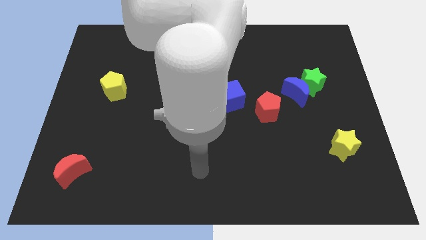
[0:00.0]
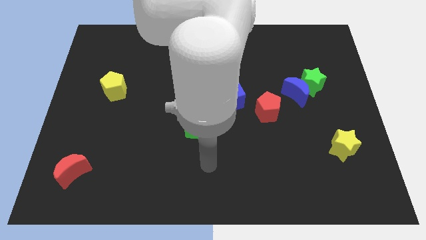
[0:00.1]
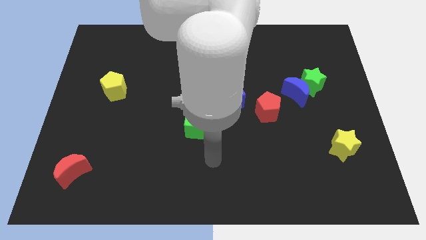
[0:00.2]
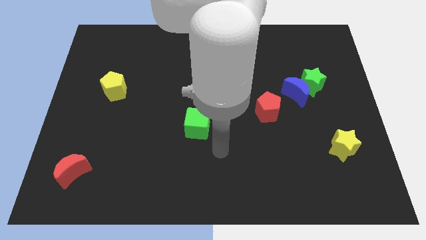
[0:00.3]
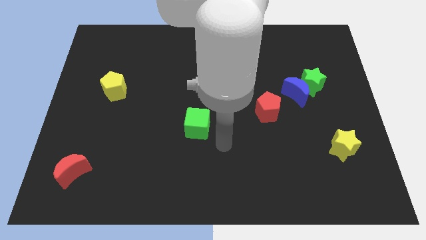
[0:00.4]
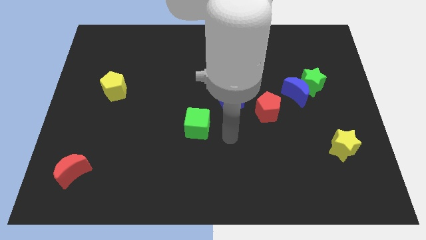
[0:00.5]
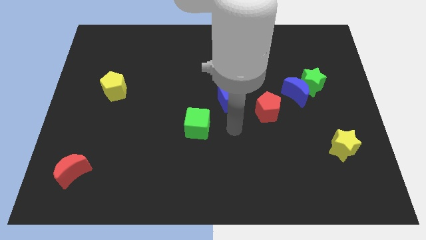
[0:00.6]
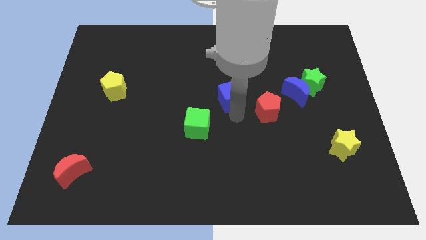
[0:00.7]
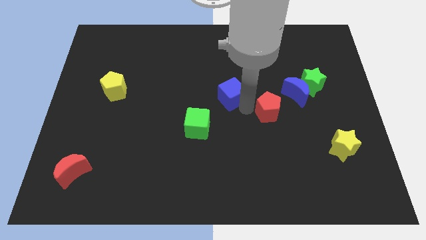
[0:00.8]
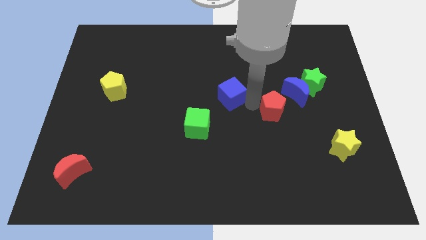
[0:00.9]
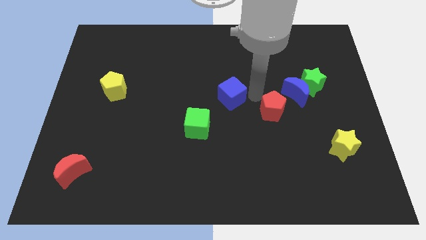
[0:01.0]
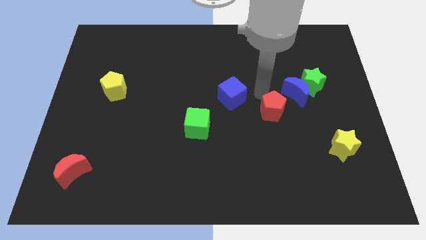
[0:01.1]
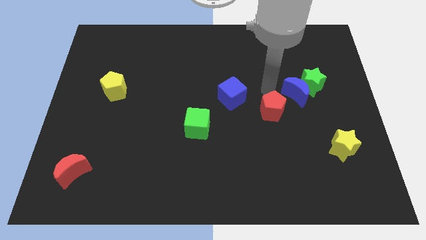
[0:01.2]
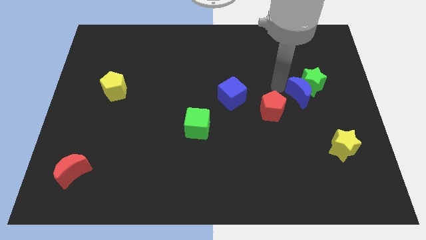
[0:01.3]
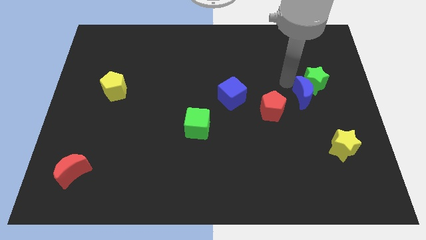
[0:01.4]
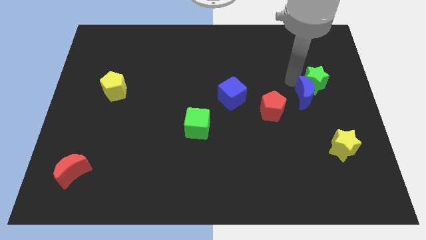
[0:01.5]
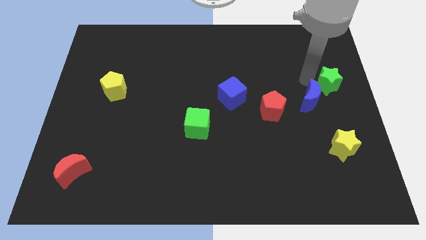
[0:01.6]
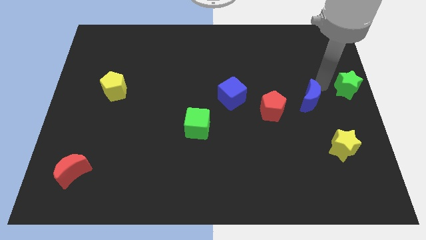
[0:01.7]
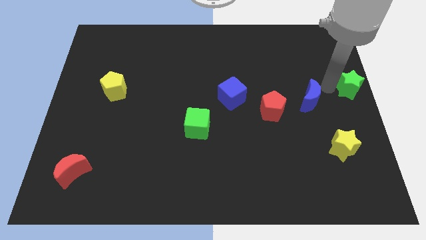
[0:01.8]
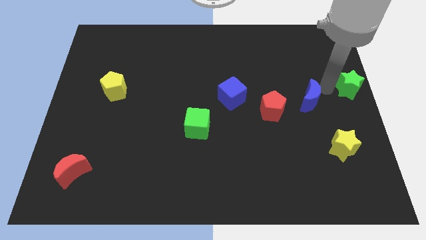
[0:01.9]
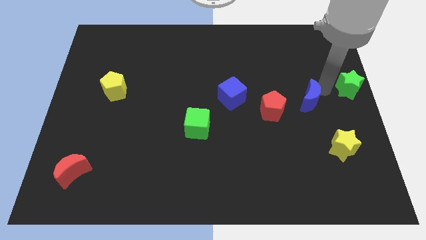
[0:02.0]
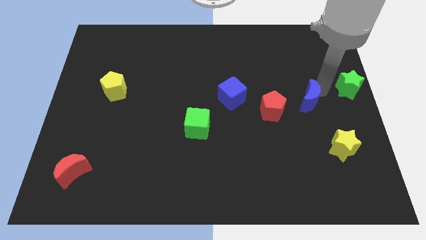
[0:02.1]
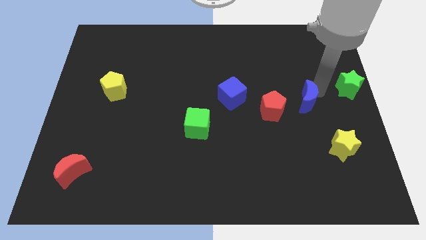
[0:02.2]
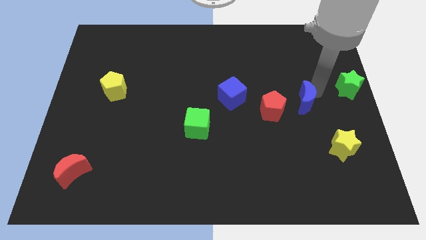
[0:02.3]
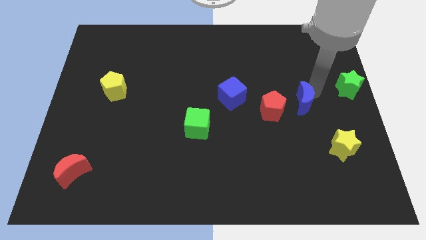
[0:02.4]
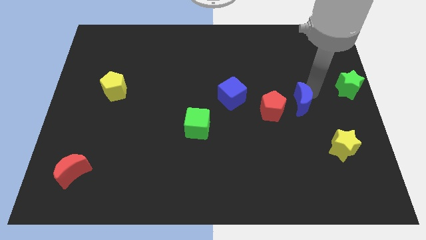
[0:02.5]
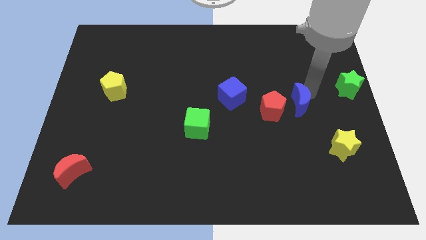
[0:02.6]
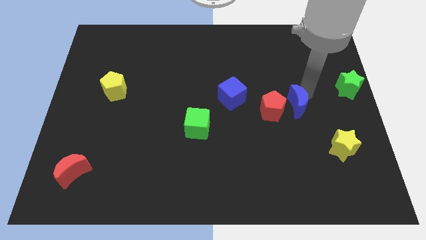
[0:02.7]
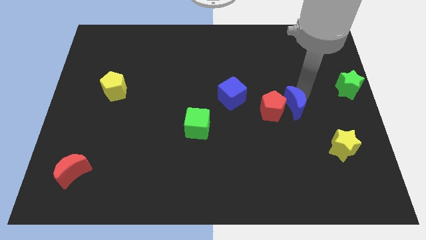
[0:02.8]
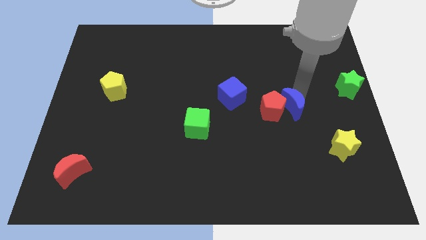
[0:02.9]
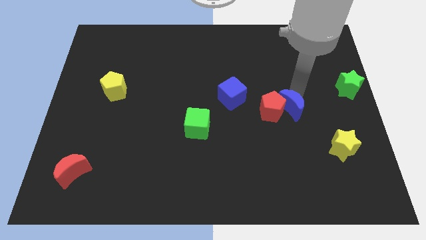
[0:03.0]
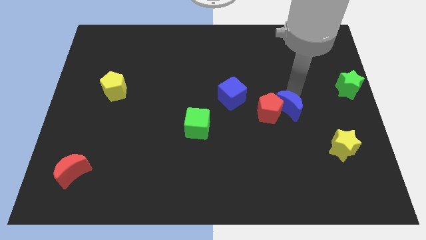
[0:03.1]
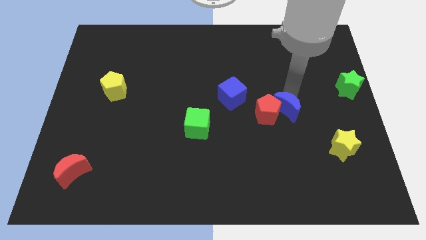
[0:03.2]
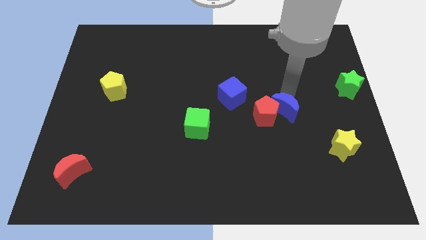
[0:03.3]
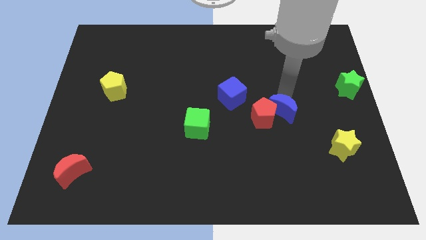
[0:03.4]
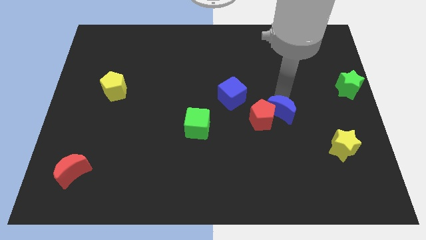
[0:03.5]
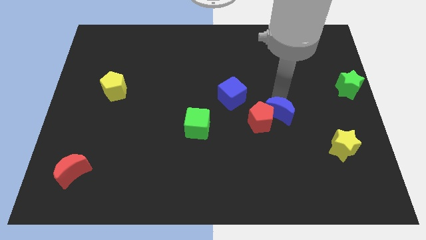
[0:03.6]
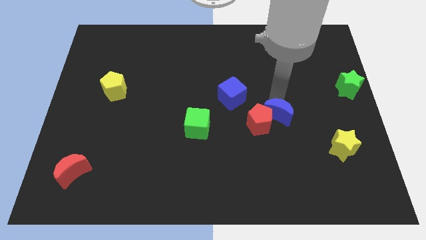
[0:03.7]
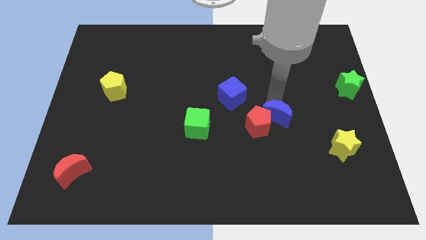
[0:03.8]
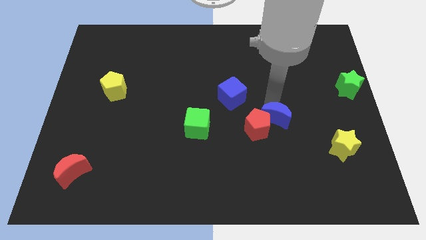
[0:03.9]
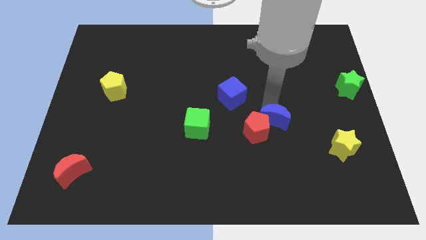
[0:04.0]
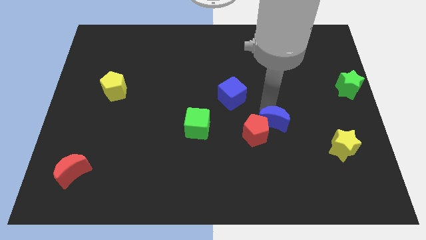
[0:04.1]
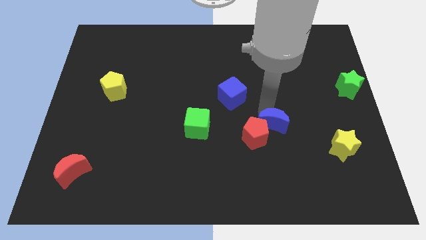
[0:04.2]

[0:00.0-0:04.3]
move the blue moon downwards slightly

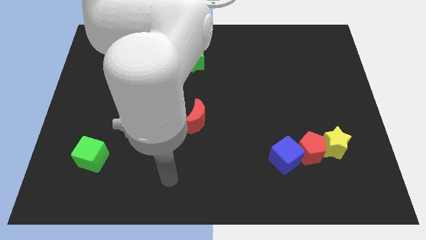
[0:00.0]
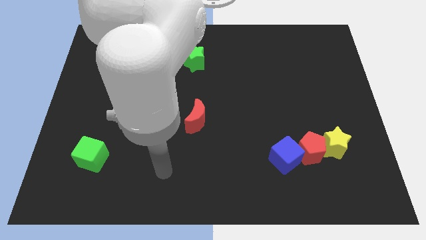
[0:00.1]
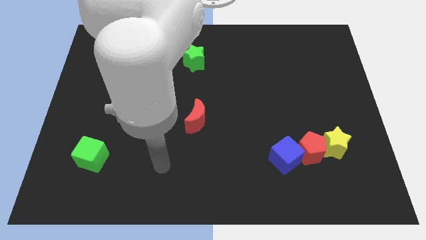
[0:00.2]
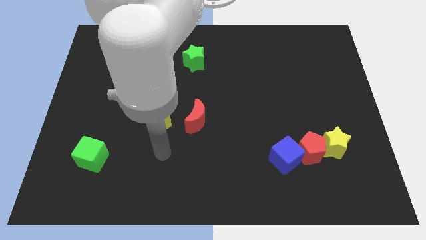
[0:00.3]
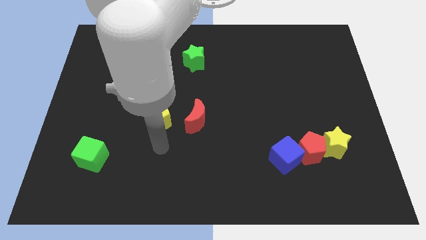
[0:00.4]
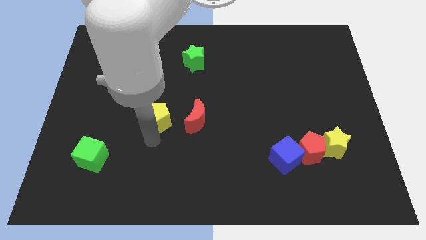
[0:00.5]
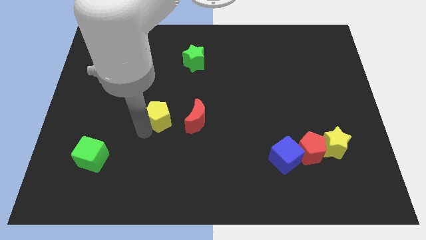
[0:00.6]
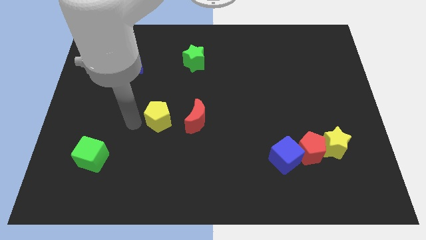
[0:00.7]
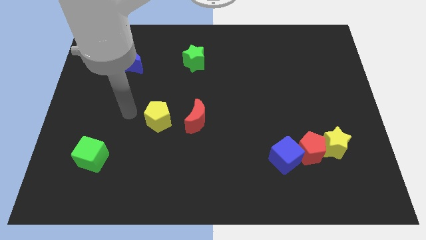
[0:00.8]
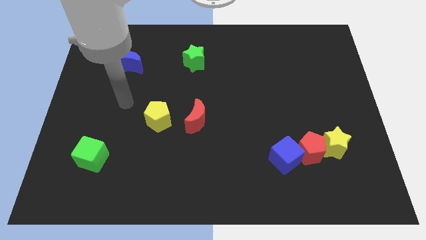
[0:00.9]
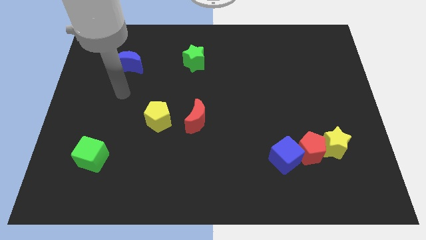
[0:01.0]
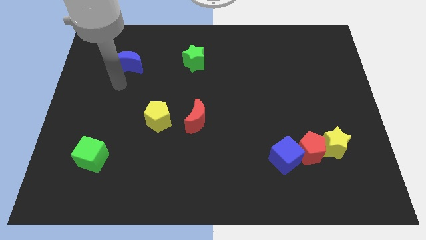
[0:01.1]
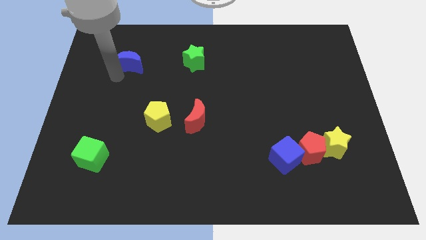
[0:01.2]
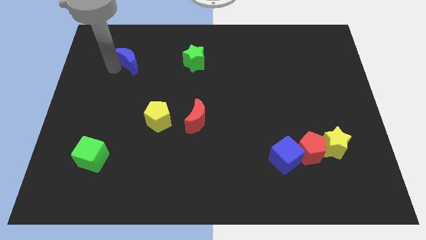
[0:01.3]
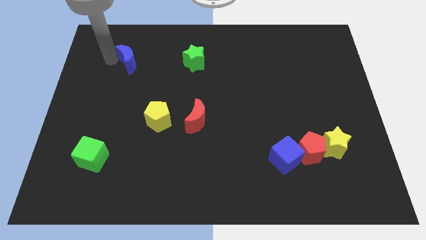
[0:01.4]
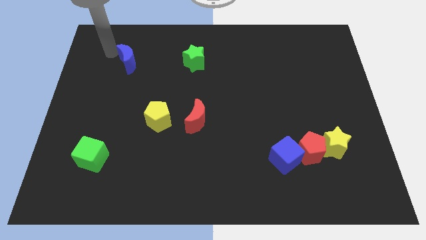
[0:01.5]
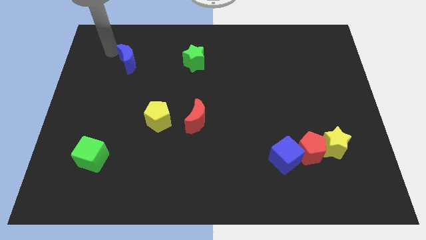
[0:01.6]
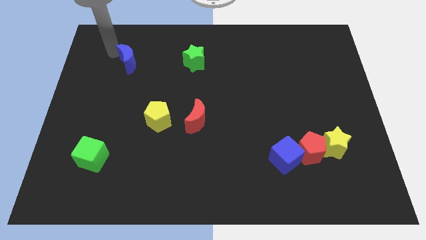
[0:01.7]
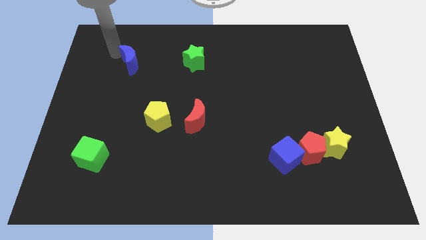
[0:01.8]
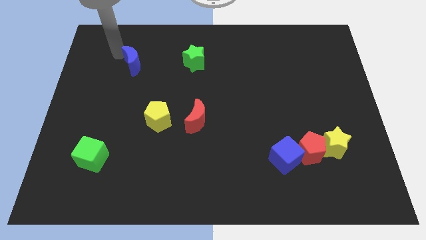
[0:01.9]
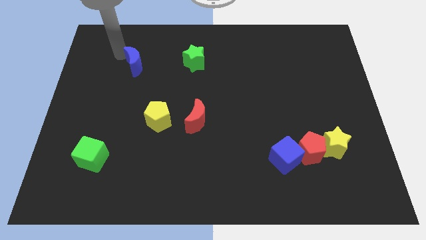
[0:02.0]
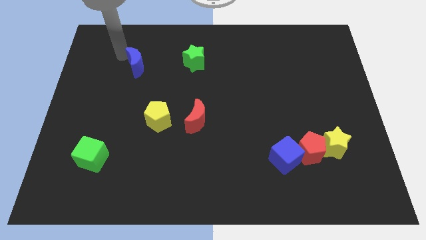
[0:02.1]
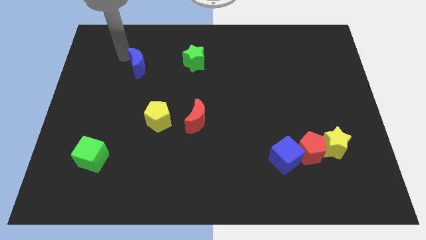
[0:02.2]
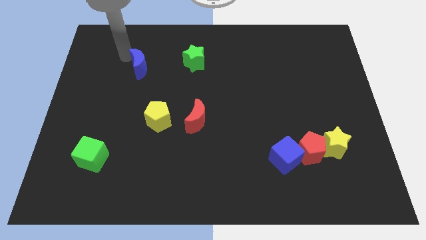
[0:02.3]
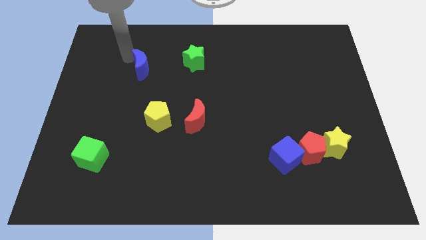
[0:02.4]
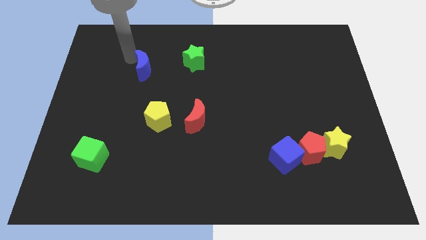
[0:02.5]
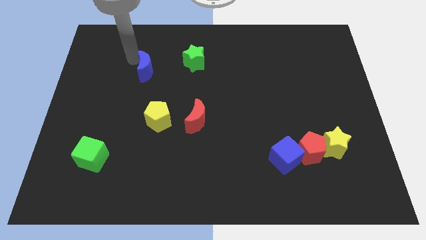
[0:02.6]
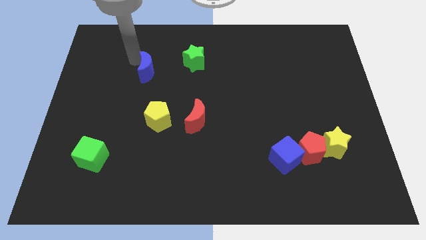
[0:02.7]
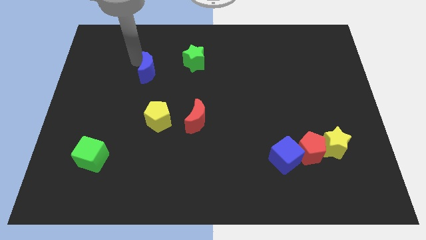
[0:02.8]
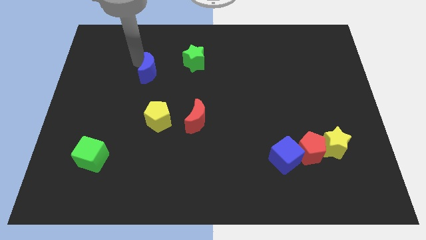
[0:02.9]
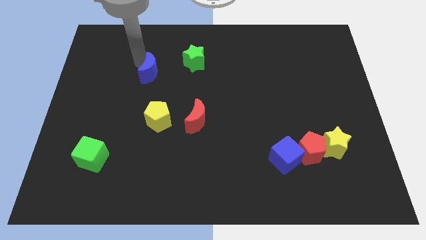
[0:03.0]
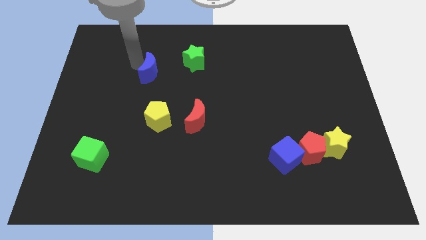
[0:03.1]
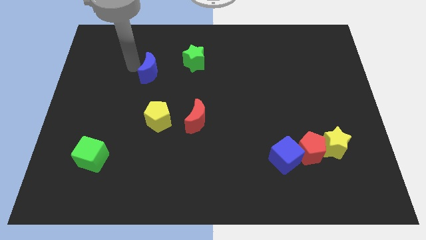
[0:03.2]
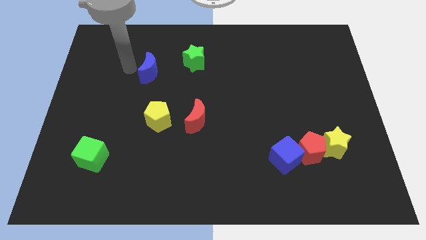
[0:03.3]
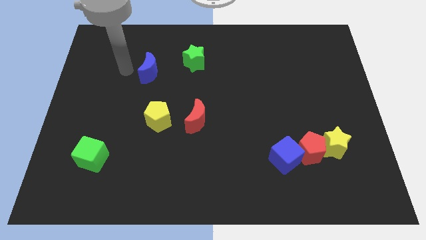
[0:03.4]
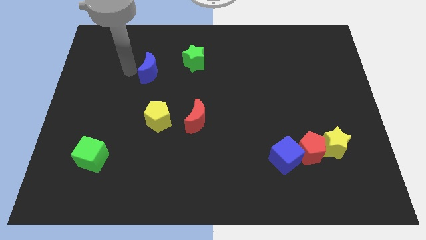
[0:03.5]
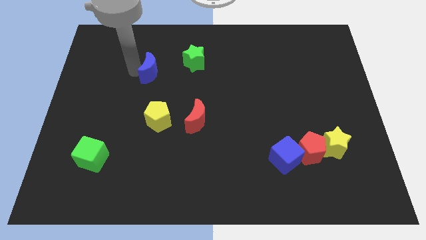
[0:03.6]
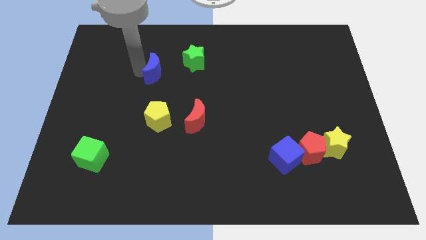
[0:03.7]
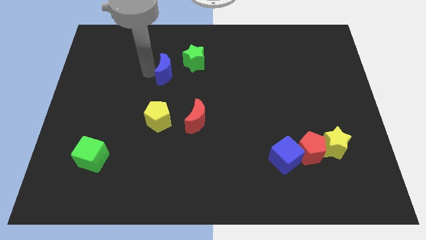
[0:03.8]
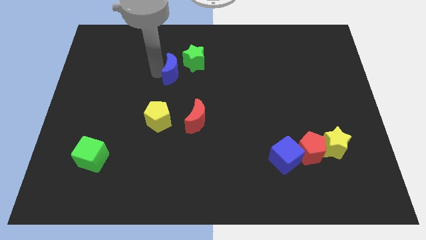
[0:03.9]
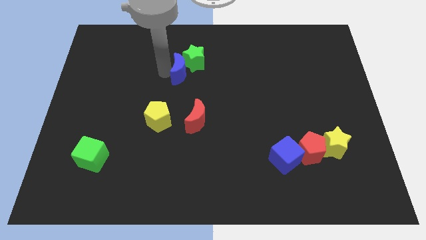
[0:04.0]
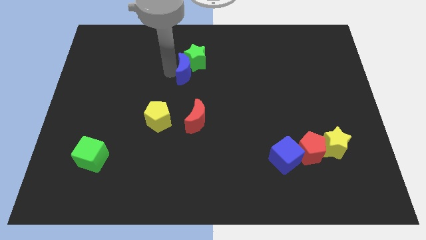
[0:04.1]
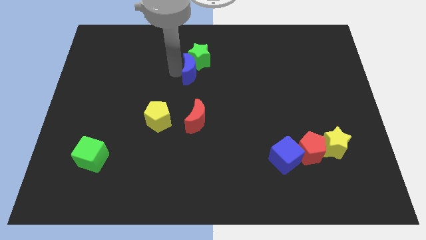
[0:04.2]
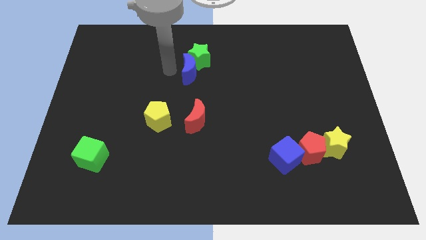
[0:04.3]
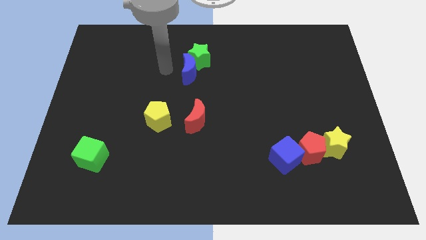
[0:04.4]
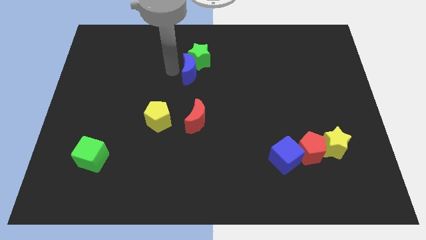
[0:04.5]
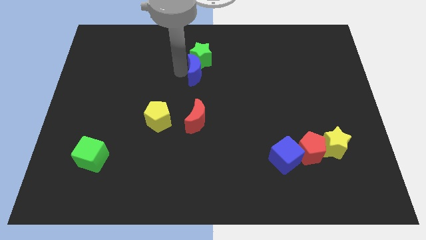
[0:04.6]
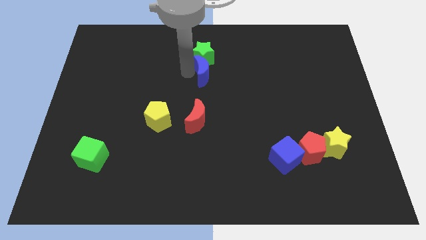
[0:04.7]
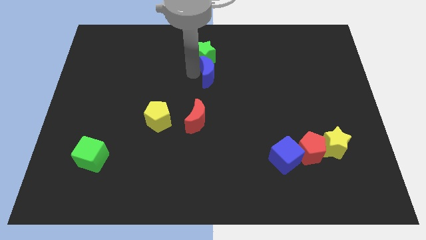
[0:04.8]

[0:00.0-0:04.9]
move the blue moon right
